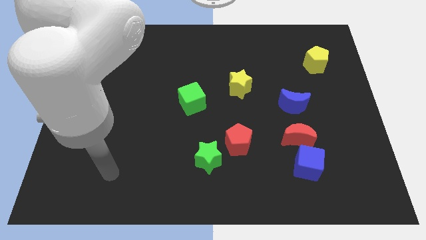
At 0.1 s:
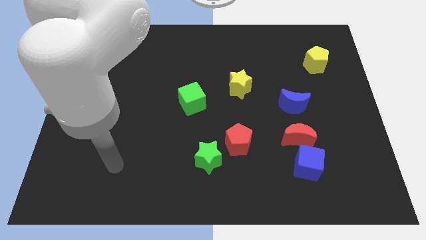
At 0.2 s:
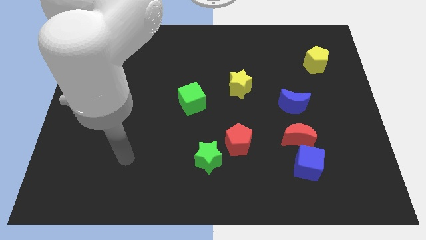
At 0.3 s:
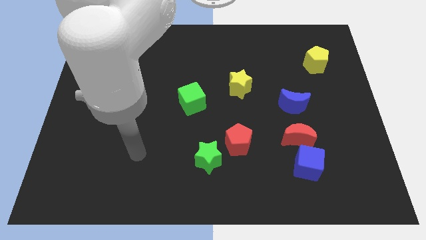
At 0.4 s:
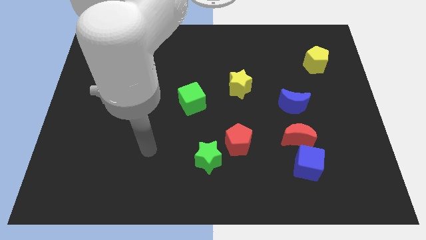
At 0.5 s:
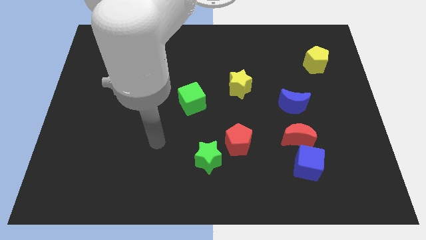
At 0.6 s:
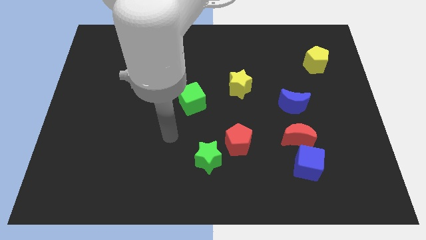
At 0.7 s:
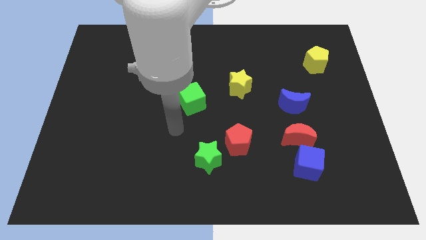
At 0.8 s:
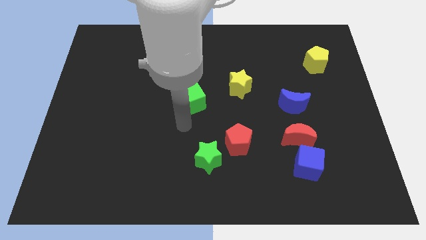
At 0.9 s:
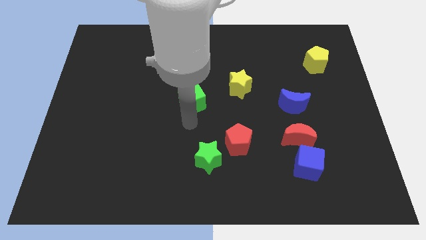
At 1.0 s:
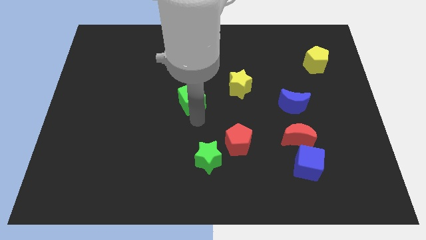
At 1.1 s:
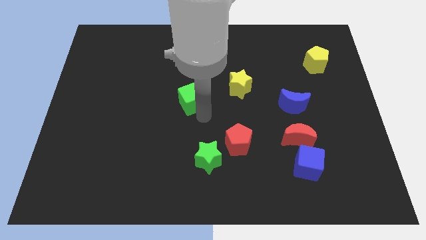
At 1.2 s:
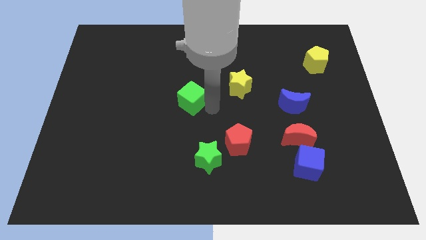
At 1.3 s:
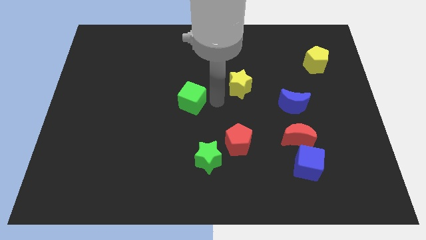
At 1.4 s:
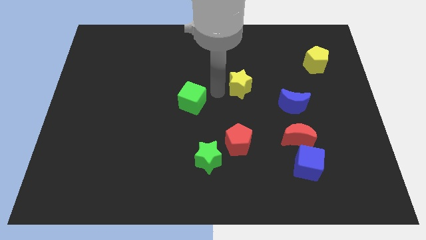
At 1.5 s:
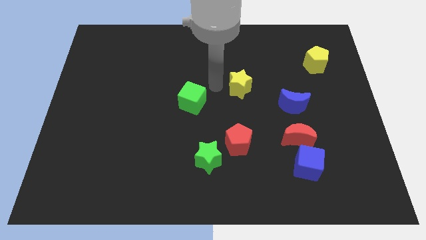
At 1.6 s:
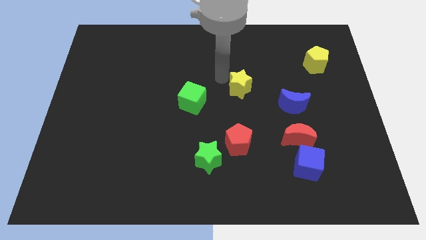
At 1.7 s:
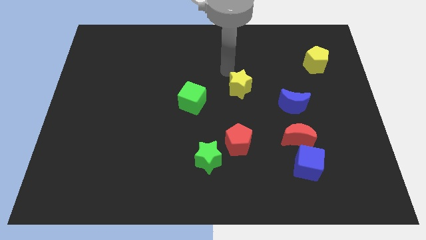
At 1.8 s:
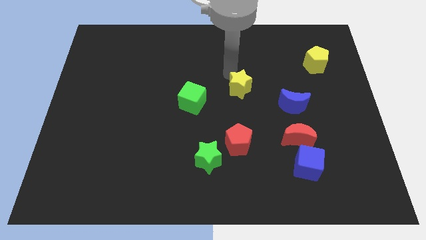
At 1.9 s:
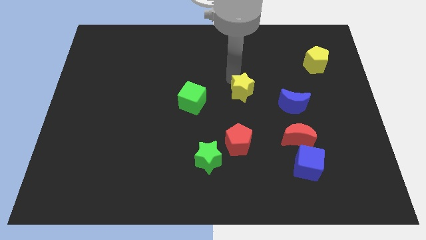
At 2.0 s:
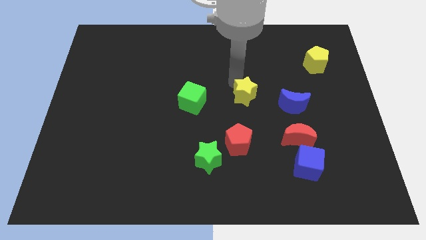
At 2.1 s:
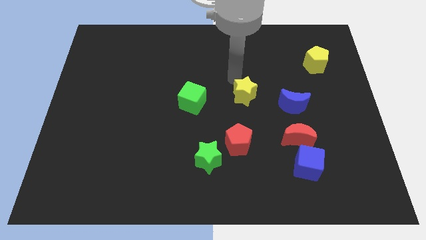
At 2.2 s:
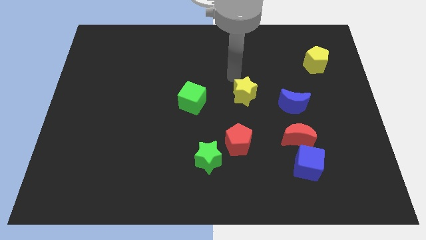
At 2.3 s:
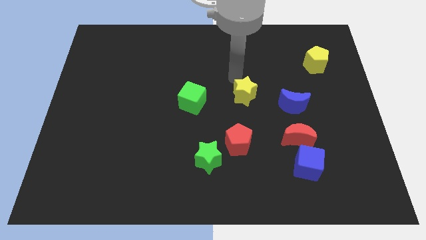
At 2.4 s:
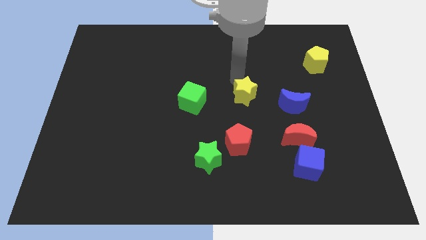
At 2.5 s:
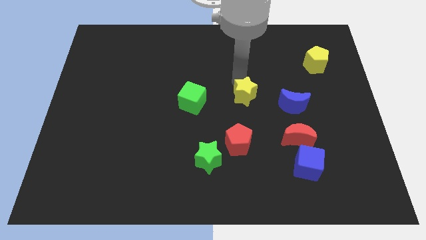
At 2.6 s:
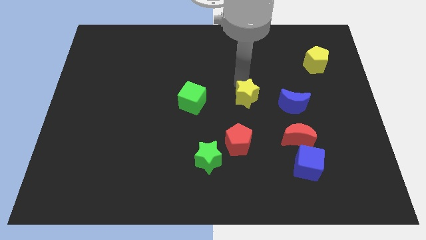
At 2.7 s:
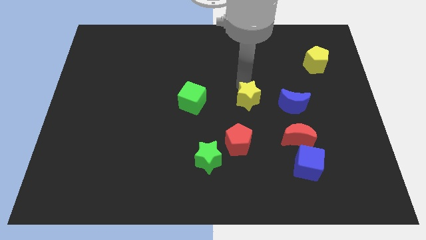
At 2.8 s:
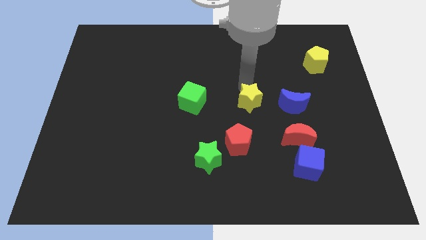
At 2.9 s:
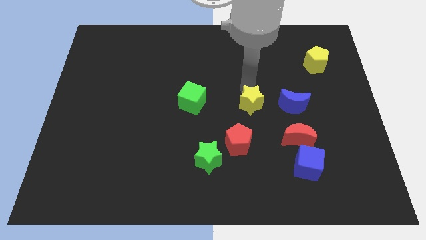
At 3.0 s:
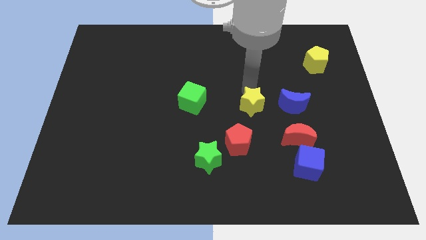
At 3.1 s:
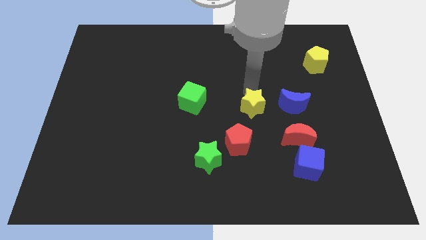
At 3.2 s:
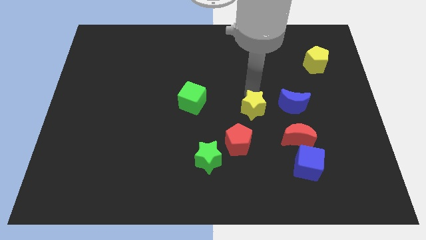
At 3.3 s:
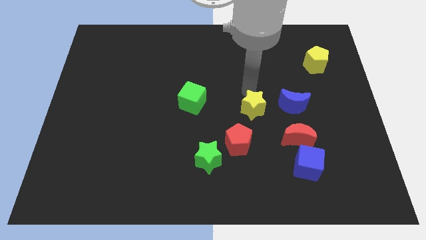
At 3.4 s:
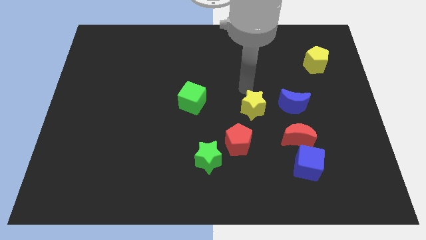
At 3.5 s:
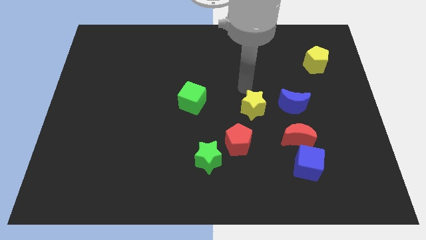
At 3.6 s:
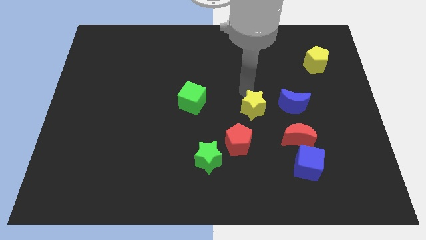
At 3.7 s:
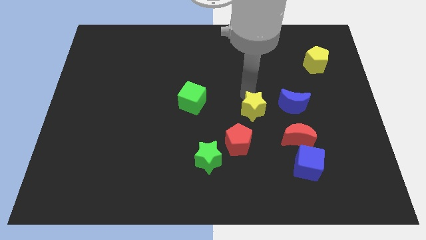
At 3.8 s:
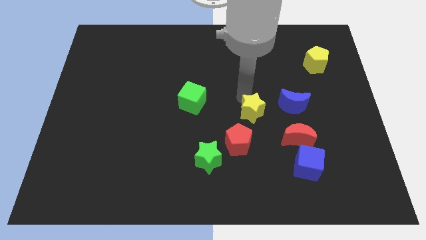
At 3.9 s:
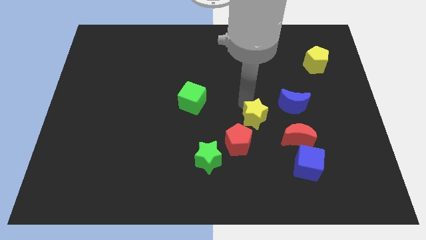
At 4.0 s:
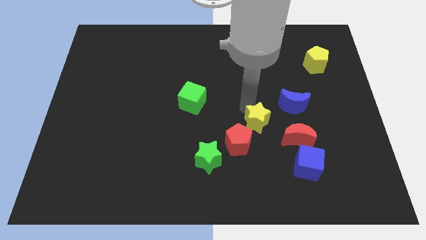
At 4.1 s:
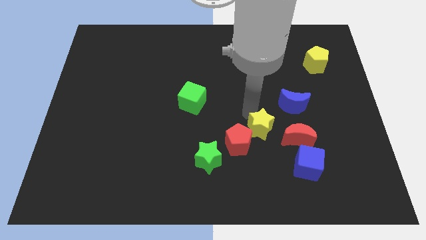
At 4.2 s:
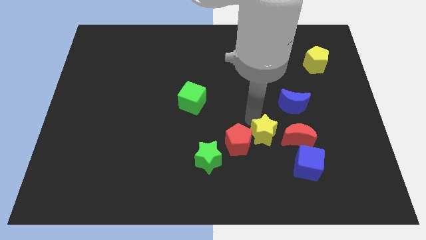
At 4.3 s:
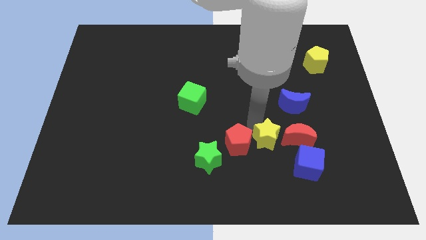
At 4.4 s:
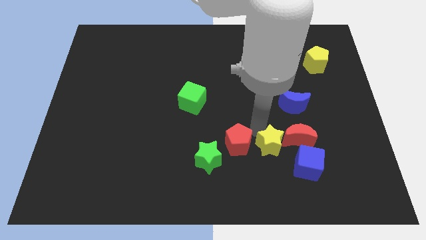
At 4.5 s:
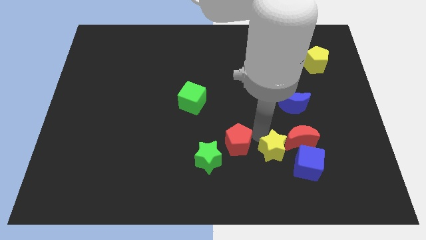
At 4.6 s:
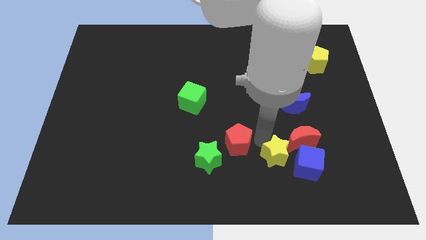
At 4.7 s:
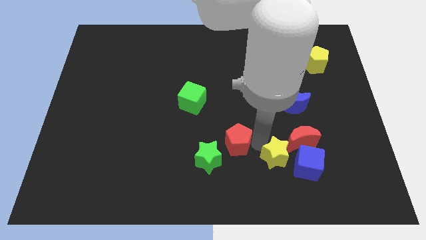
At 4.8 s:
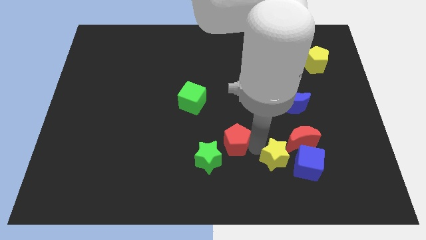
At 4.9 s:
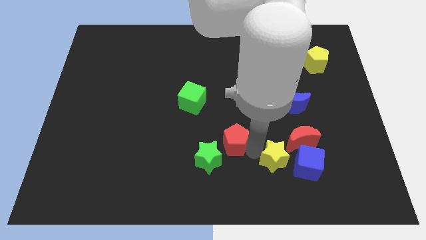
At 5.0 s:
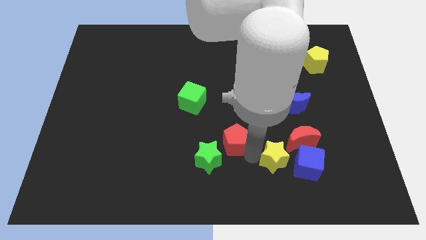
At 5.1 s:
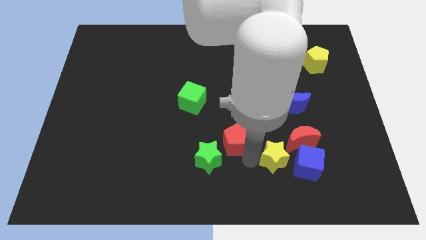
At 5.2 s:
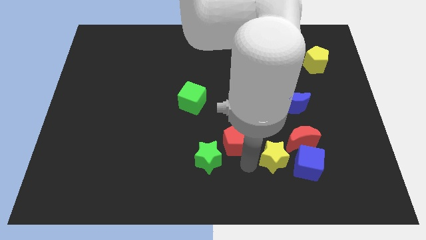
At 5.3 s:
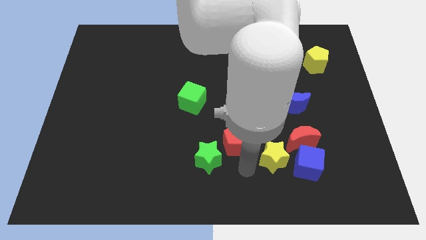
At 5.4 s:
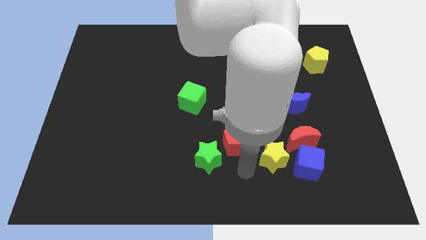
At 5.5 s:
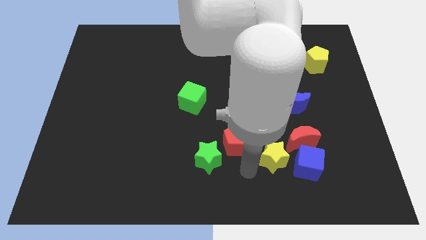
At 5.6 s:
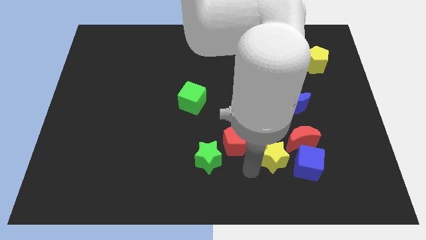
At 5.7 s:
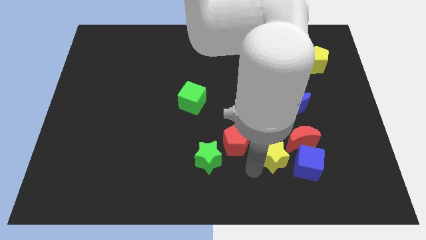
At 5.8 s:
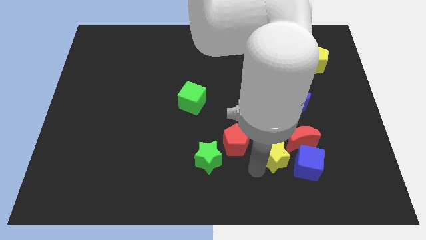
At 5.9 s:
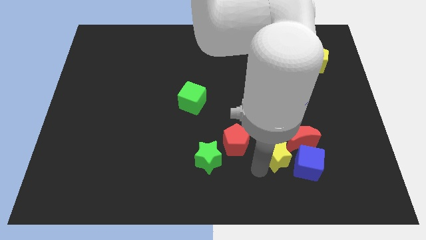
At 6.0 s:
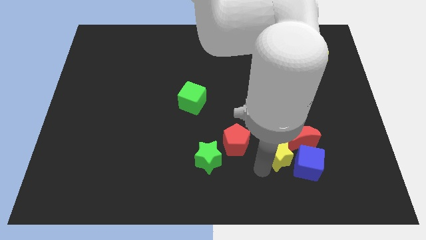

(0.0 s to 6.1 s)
slide the yellow star towards the blue cube

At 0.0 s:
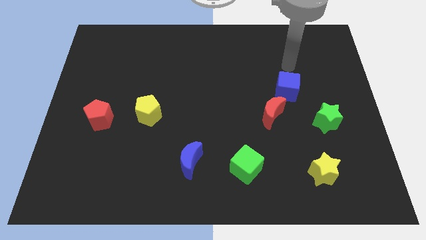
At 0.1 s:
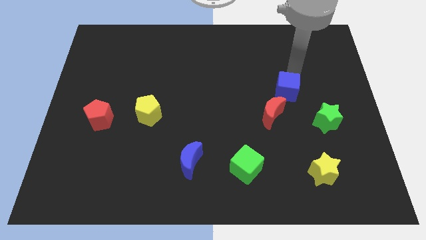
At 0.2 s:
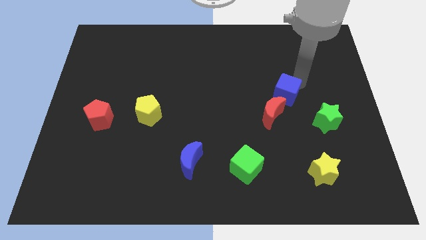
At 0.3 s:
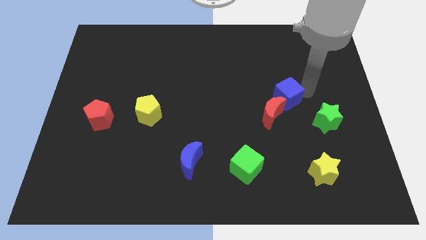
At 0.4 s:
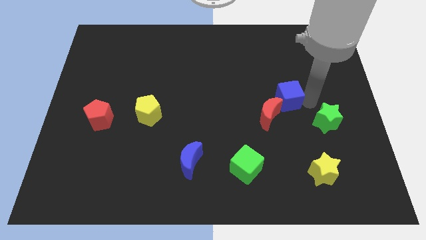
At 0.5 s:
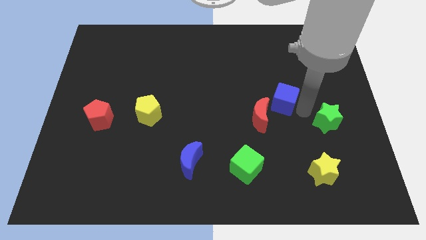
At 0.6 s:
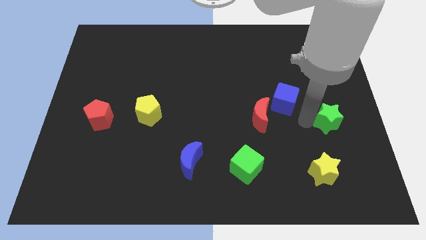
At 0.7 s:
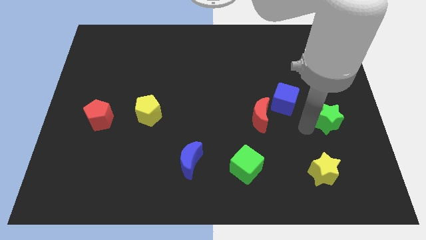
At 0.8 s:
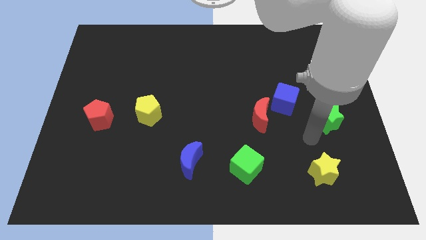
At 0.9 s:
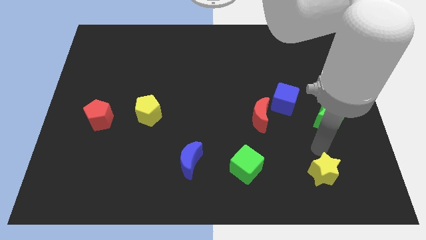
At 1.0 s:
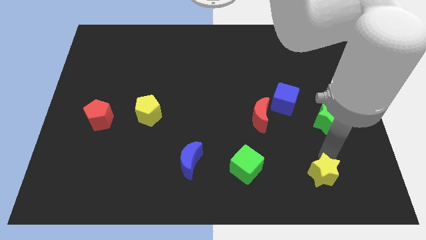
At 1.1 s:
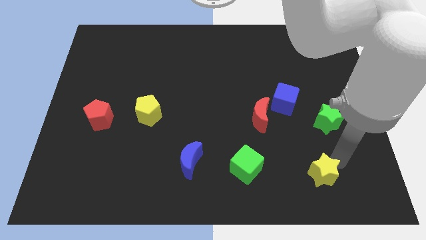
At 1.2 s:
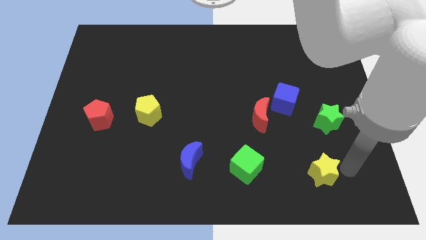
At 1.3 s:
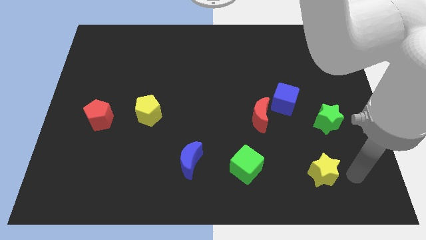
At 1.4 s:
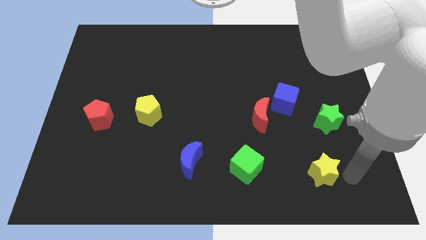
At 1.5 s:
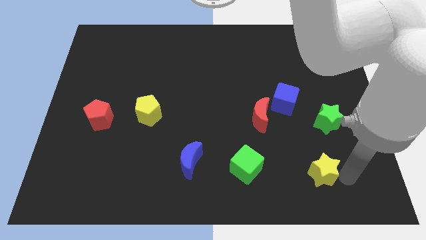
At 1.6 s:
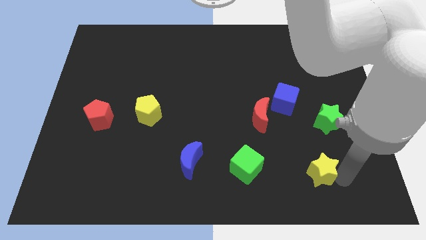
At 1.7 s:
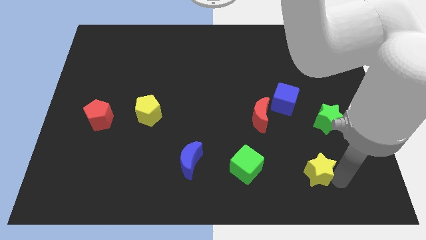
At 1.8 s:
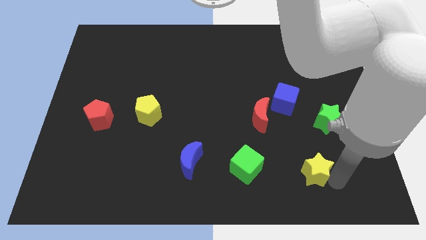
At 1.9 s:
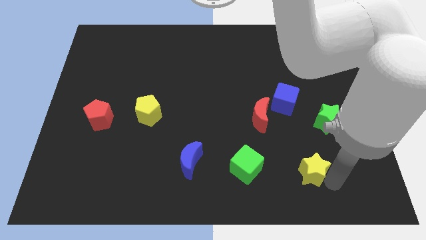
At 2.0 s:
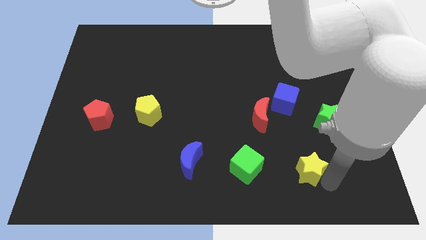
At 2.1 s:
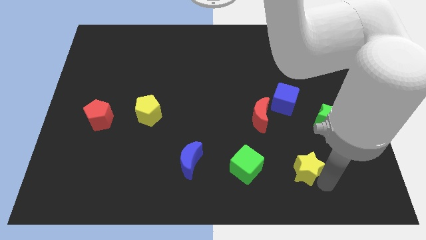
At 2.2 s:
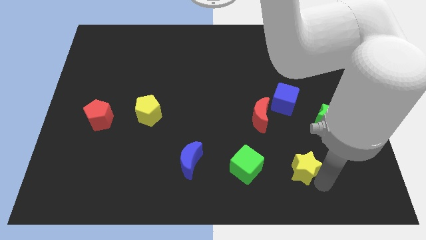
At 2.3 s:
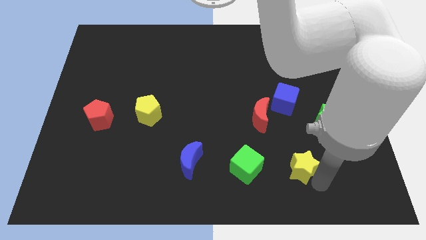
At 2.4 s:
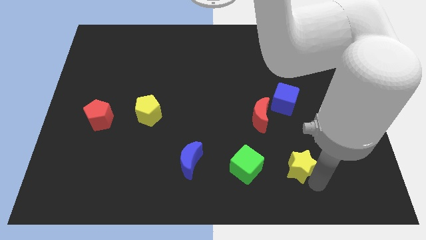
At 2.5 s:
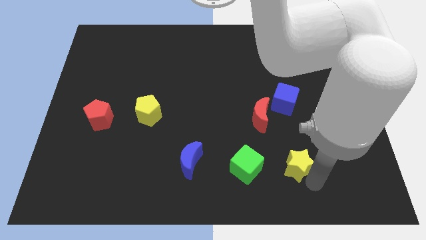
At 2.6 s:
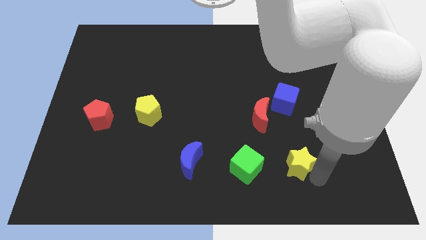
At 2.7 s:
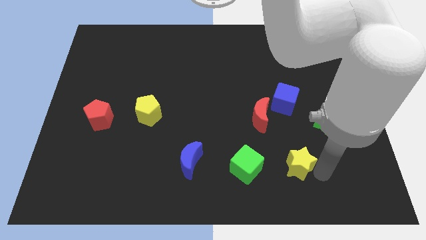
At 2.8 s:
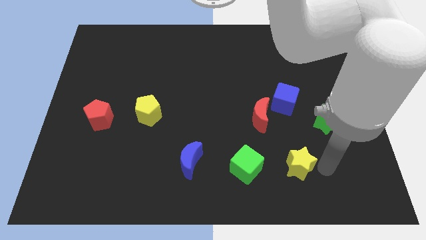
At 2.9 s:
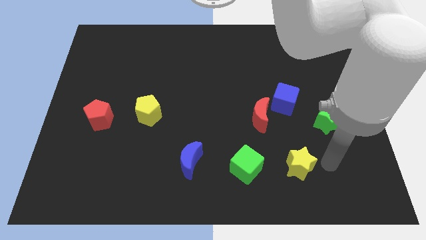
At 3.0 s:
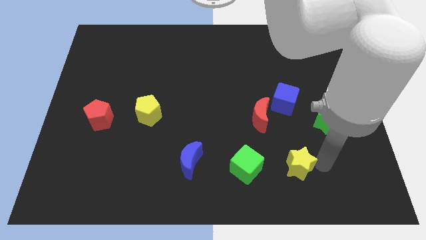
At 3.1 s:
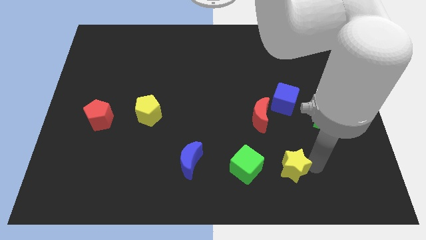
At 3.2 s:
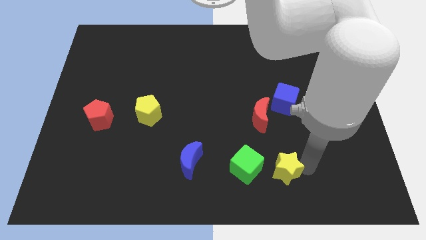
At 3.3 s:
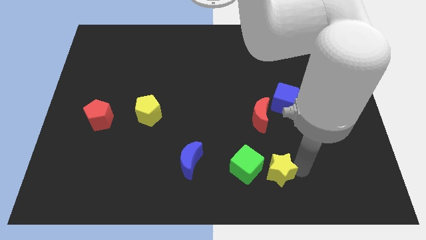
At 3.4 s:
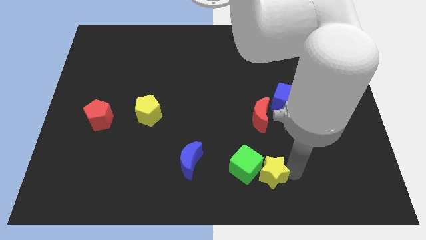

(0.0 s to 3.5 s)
slide the yellow star towards the green cube
